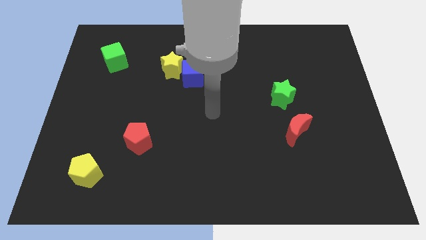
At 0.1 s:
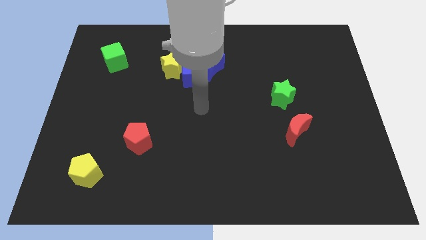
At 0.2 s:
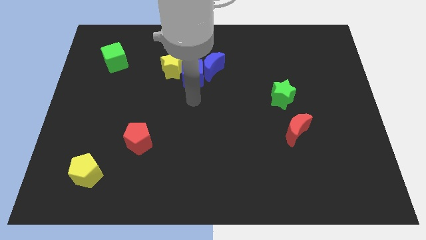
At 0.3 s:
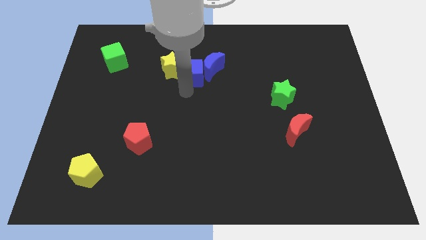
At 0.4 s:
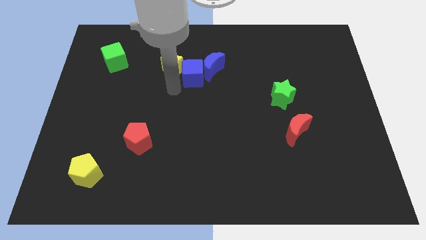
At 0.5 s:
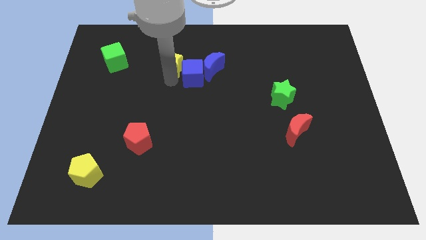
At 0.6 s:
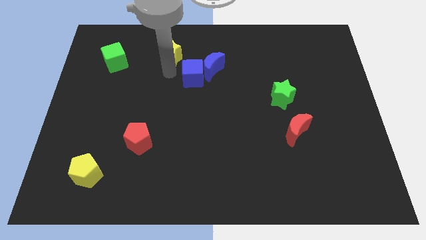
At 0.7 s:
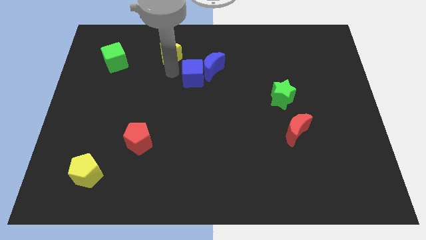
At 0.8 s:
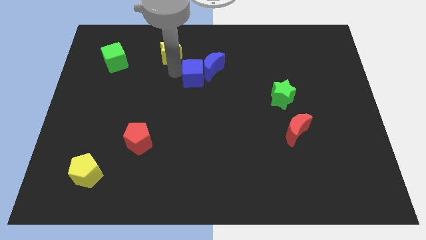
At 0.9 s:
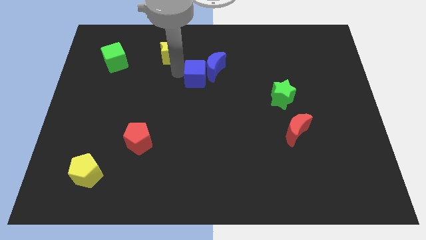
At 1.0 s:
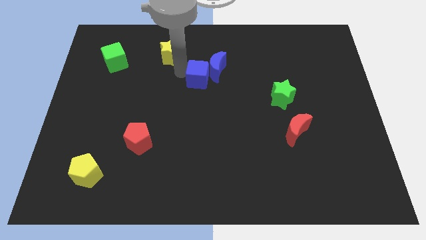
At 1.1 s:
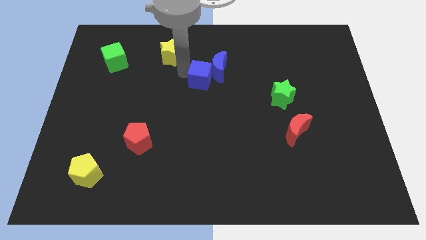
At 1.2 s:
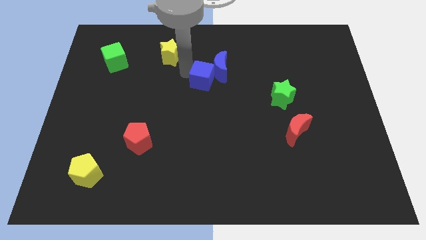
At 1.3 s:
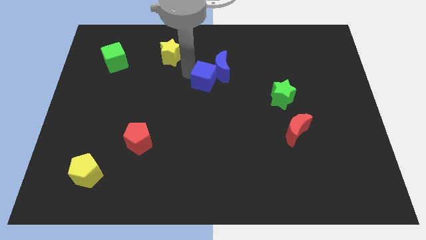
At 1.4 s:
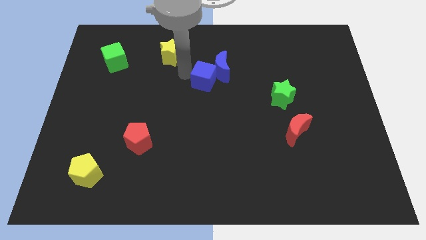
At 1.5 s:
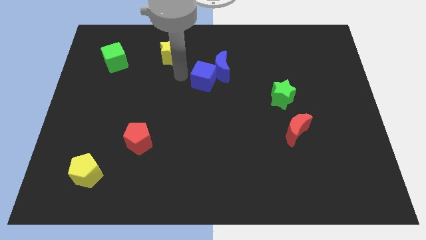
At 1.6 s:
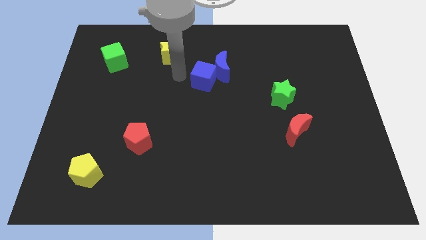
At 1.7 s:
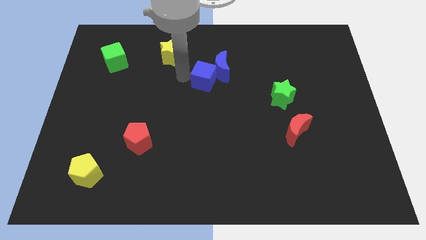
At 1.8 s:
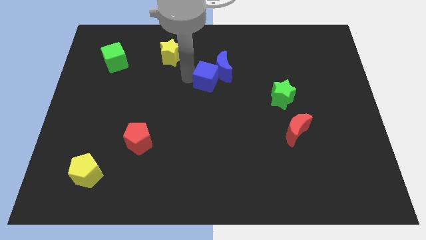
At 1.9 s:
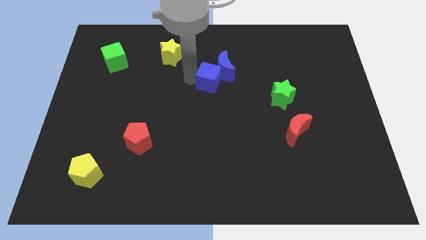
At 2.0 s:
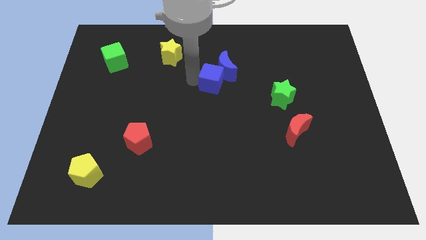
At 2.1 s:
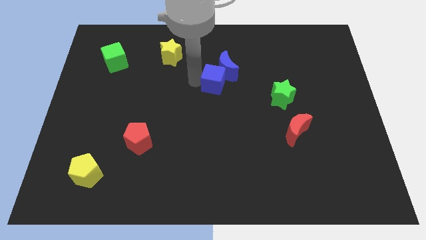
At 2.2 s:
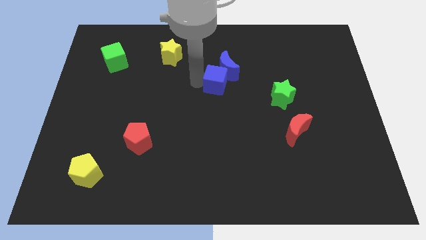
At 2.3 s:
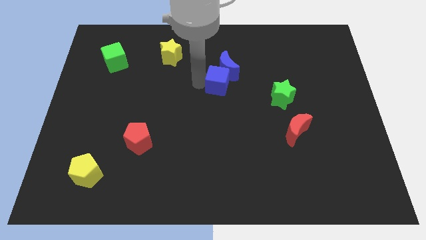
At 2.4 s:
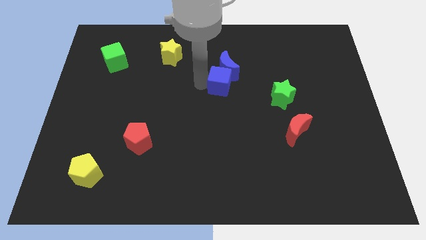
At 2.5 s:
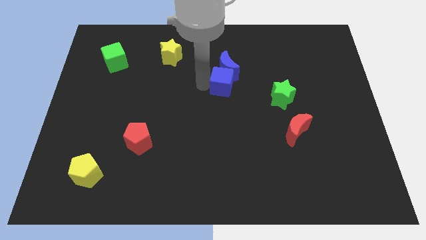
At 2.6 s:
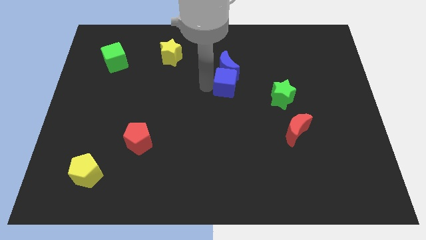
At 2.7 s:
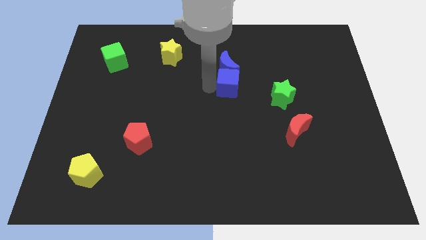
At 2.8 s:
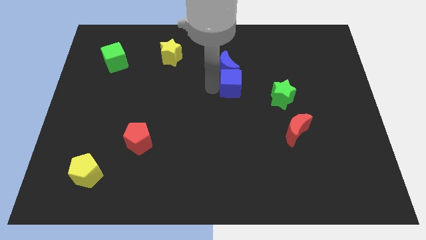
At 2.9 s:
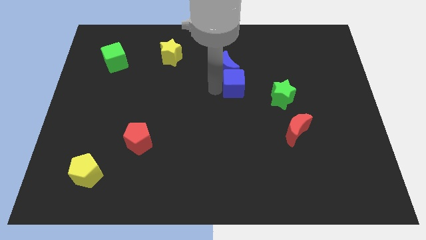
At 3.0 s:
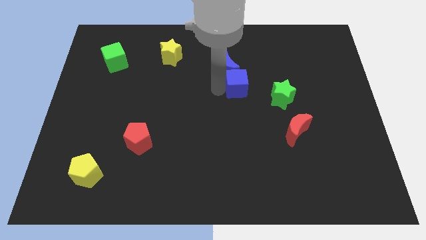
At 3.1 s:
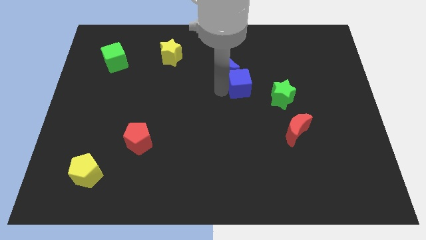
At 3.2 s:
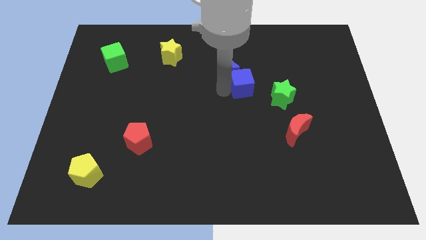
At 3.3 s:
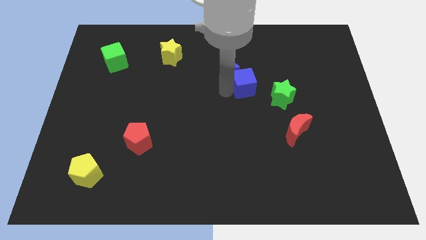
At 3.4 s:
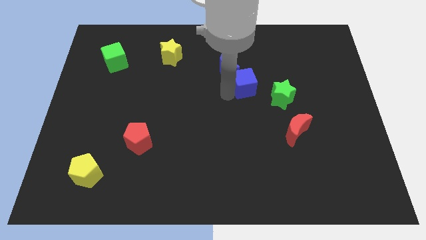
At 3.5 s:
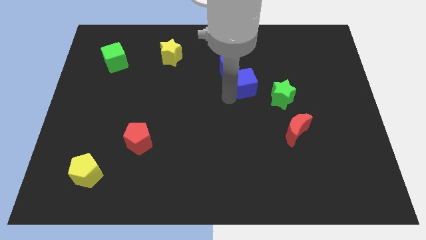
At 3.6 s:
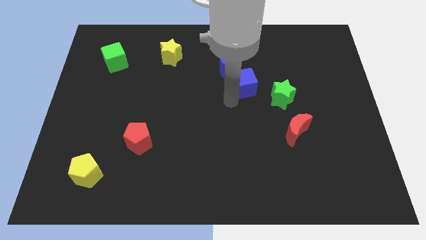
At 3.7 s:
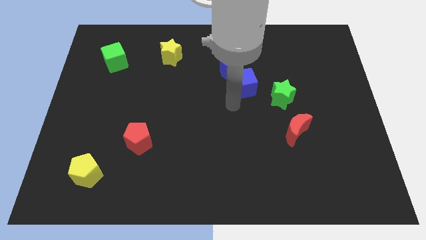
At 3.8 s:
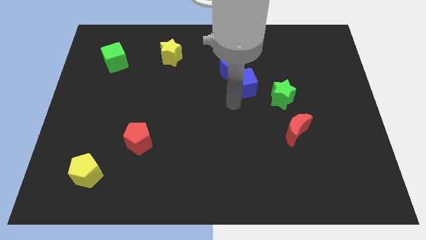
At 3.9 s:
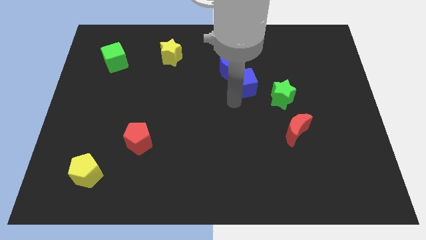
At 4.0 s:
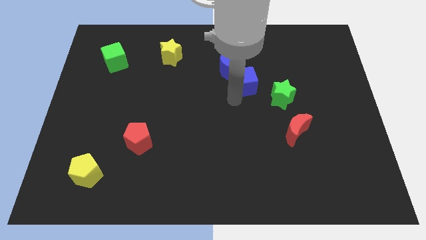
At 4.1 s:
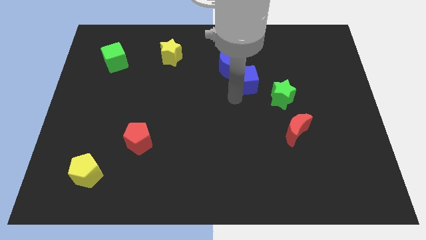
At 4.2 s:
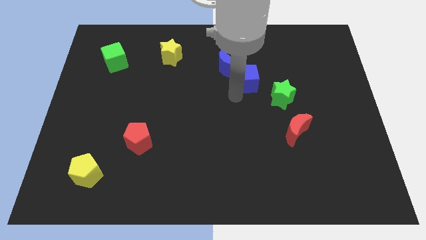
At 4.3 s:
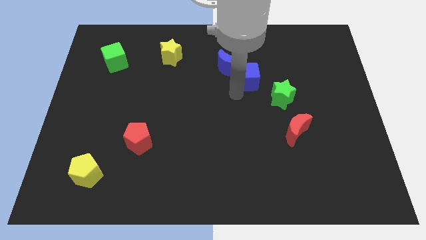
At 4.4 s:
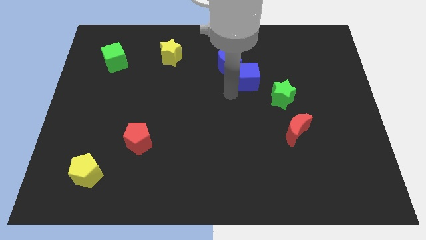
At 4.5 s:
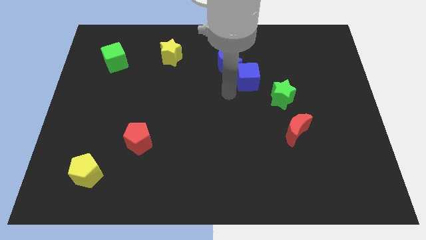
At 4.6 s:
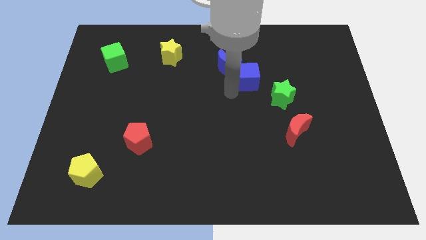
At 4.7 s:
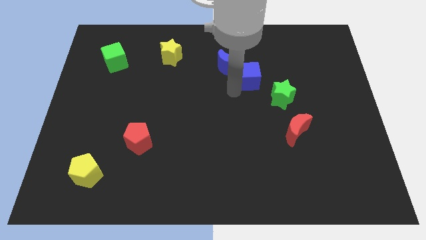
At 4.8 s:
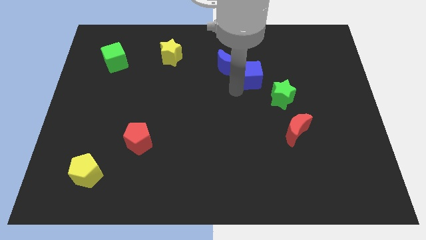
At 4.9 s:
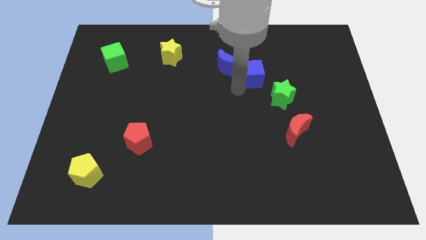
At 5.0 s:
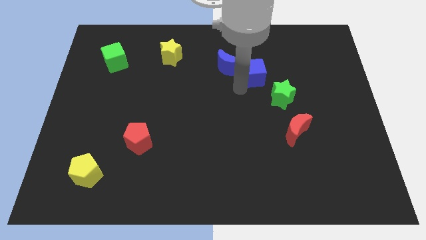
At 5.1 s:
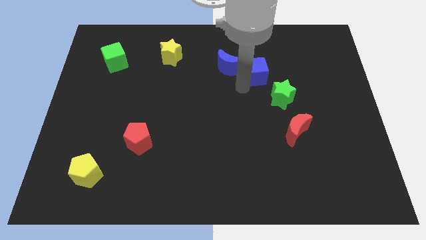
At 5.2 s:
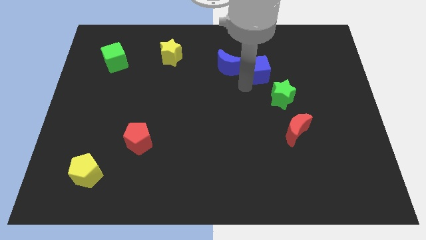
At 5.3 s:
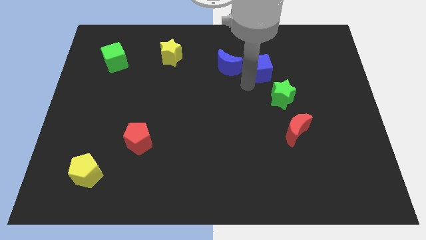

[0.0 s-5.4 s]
slide the blue cube to the top of the green star

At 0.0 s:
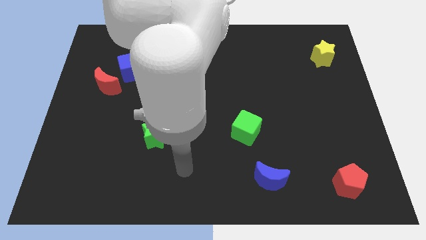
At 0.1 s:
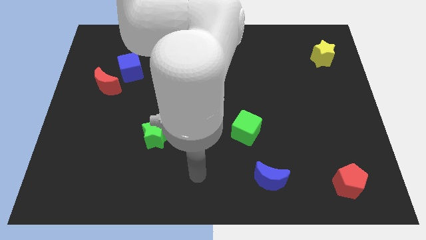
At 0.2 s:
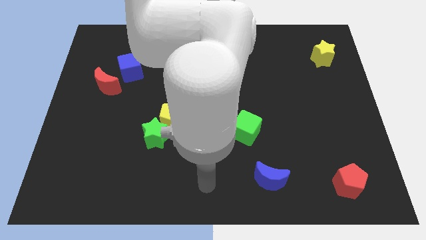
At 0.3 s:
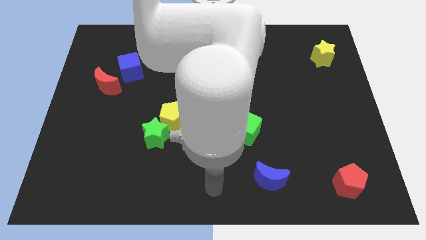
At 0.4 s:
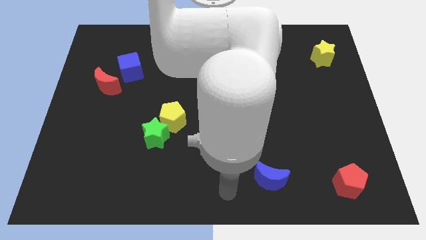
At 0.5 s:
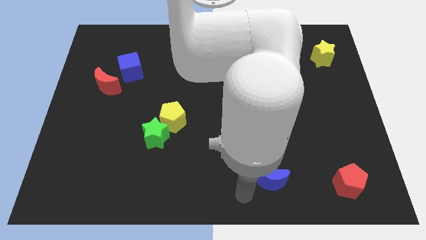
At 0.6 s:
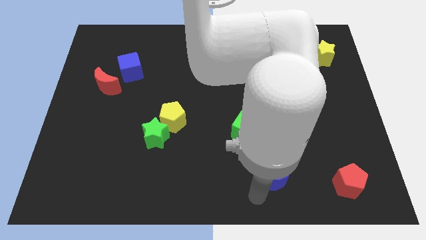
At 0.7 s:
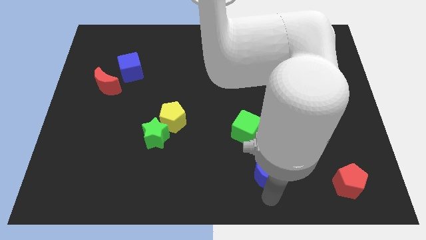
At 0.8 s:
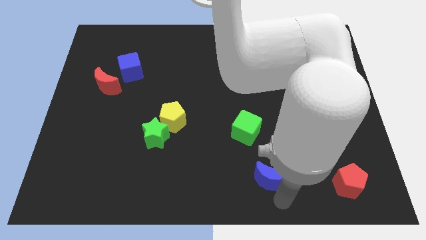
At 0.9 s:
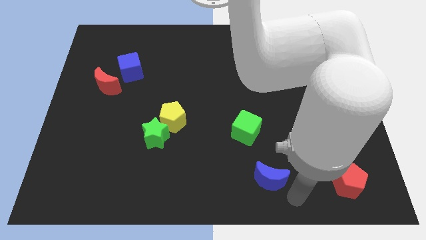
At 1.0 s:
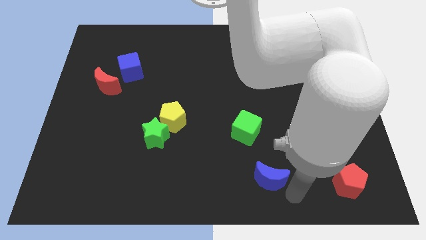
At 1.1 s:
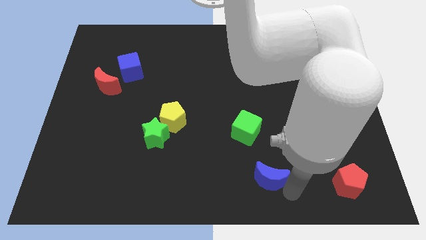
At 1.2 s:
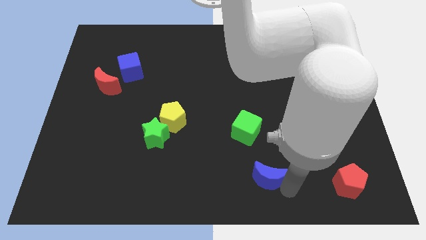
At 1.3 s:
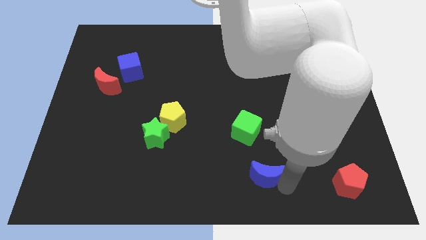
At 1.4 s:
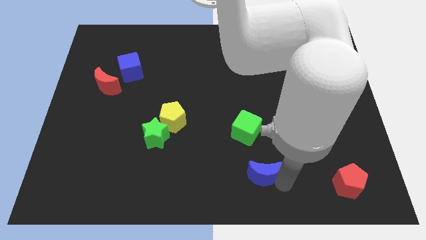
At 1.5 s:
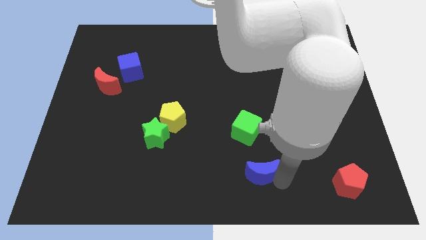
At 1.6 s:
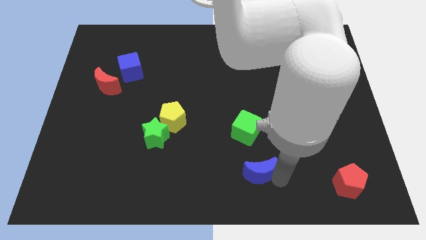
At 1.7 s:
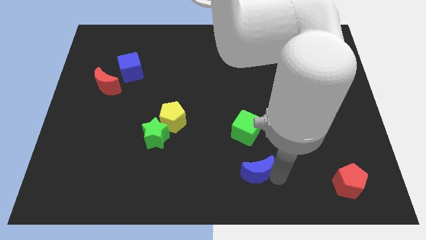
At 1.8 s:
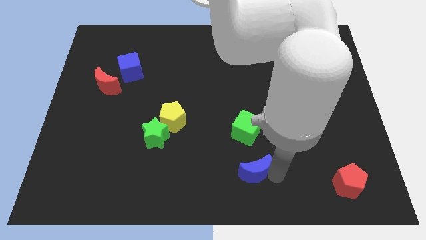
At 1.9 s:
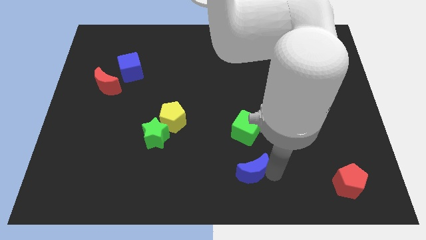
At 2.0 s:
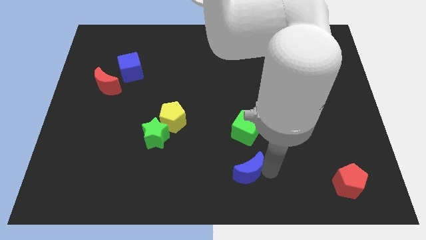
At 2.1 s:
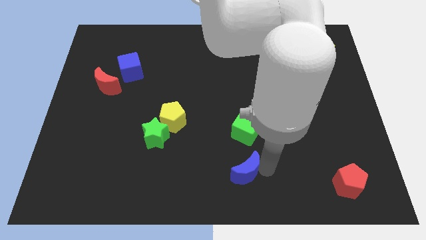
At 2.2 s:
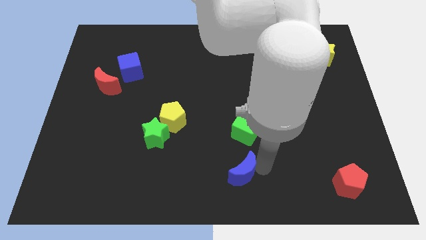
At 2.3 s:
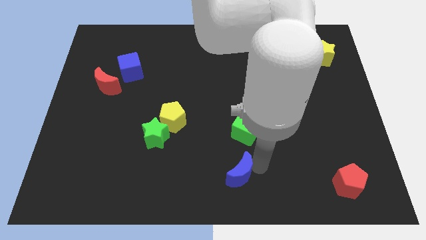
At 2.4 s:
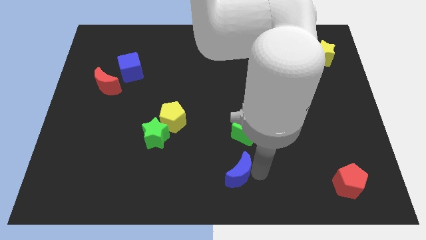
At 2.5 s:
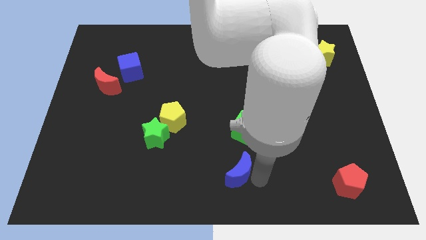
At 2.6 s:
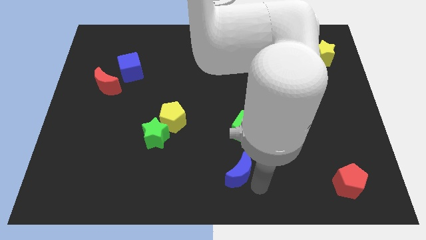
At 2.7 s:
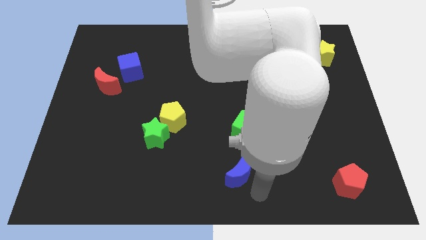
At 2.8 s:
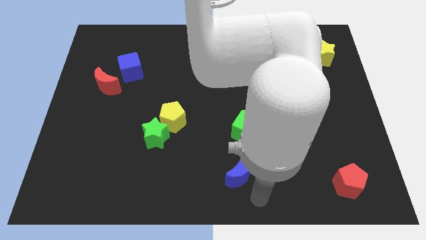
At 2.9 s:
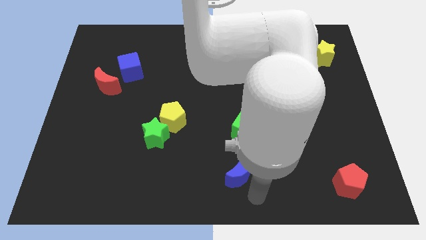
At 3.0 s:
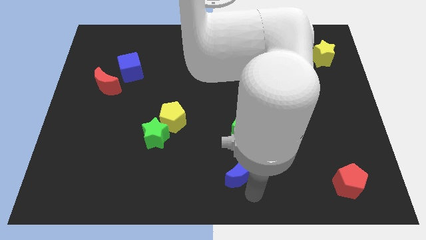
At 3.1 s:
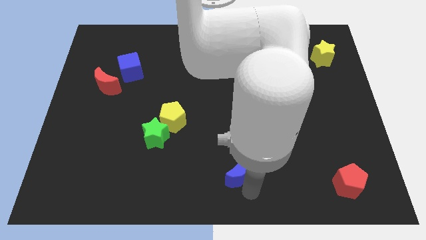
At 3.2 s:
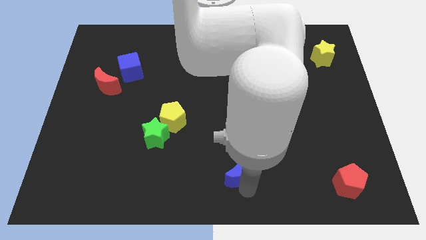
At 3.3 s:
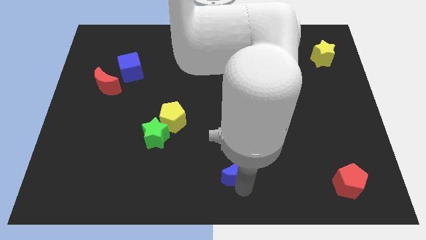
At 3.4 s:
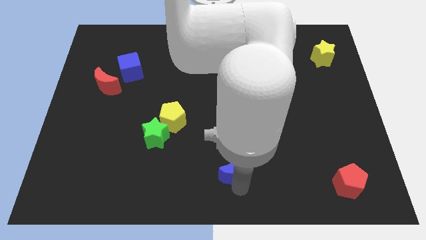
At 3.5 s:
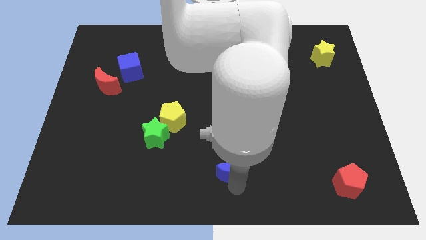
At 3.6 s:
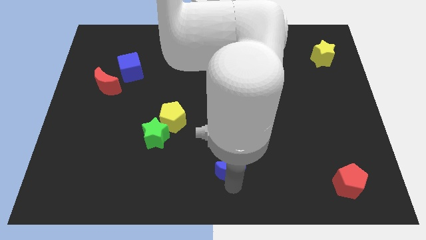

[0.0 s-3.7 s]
move the blue moon to the bottom left side of the green cube
